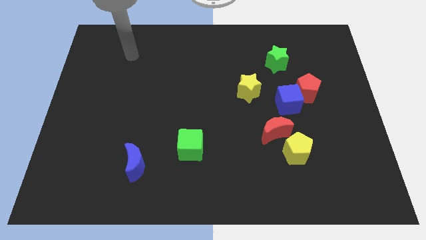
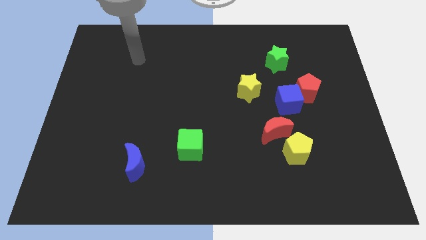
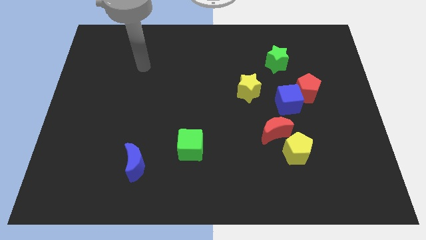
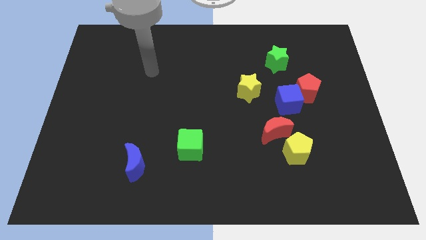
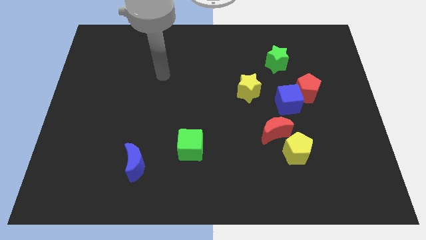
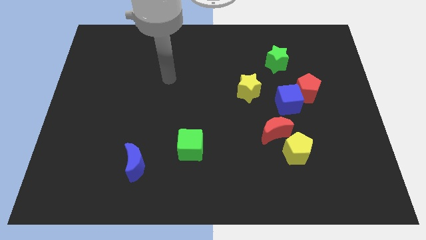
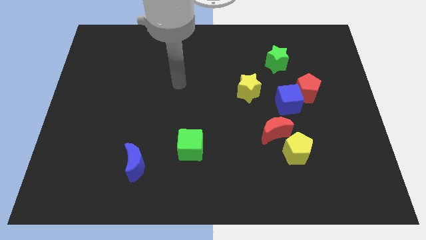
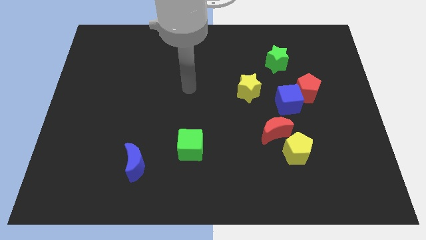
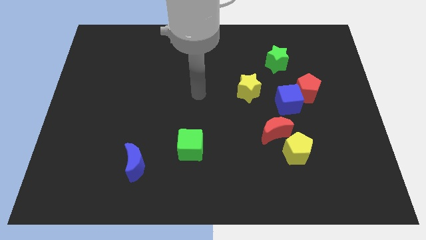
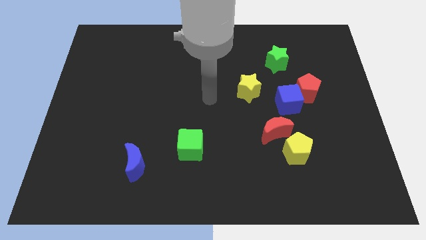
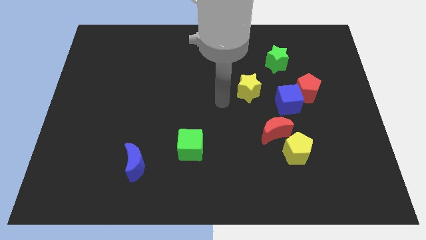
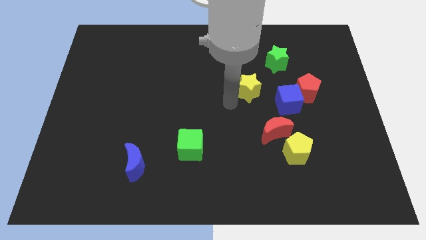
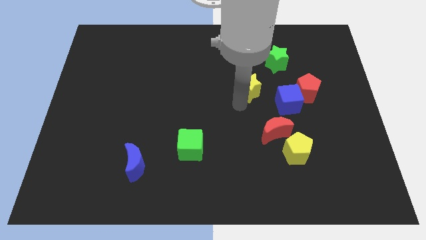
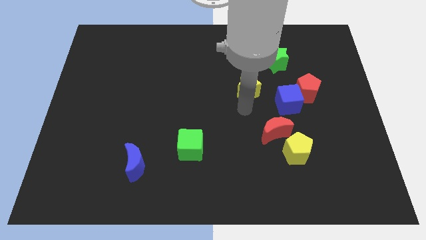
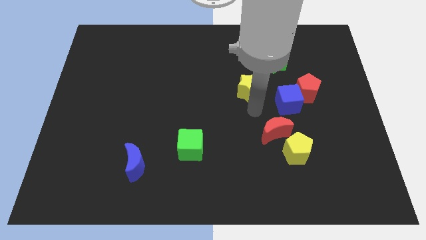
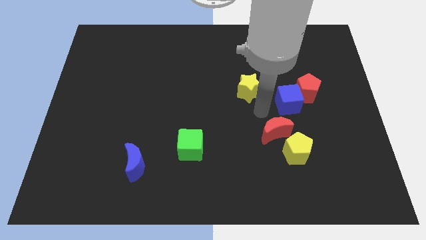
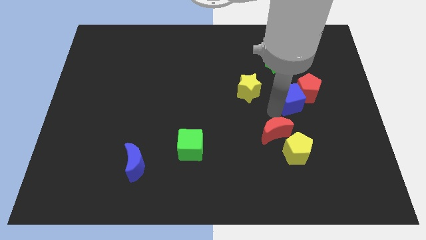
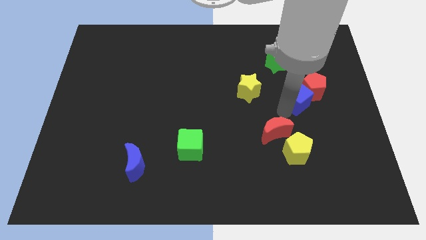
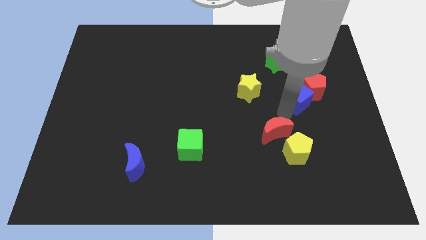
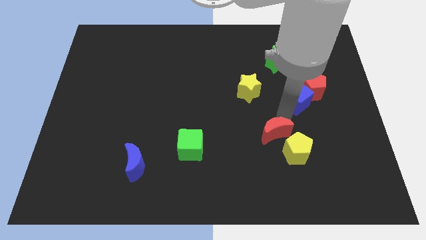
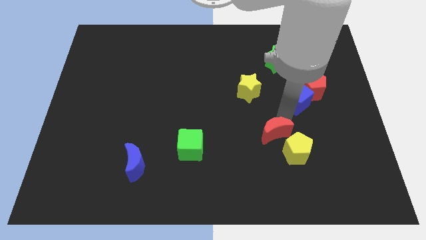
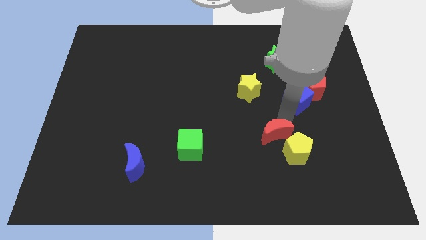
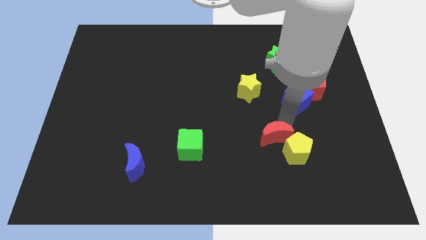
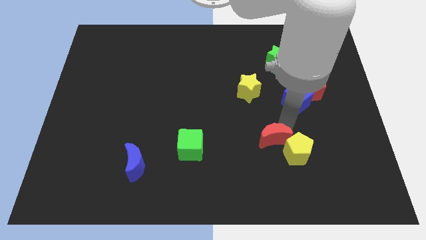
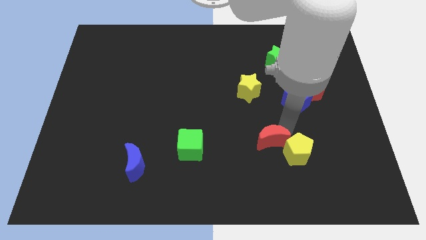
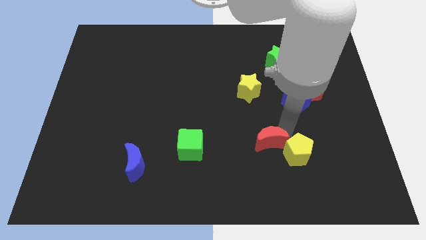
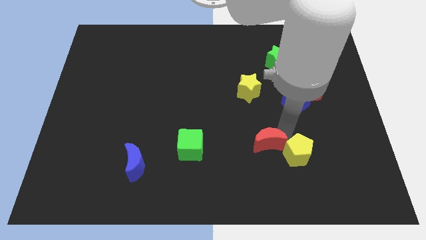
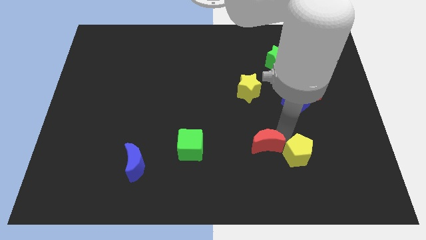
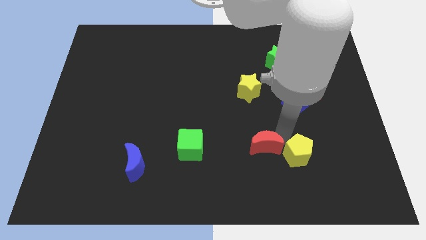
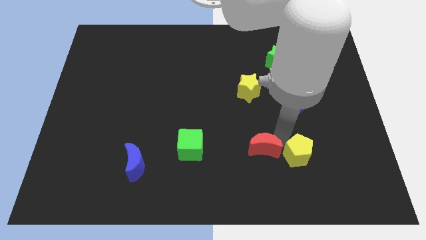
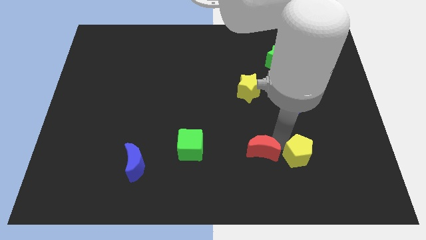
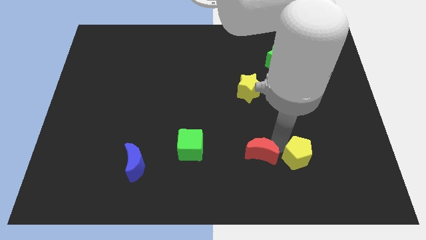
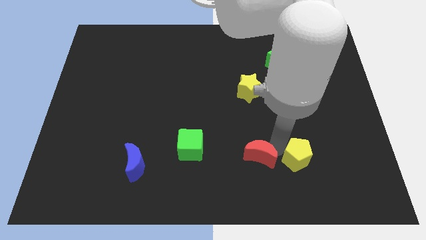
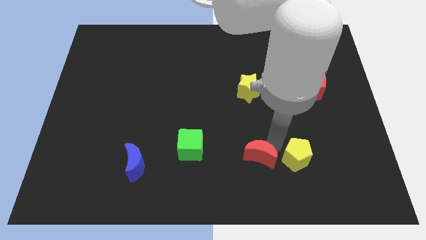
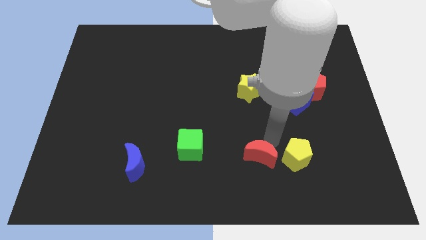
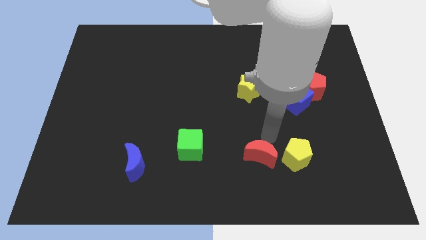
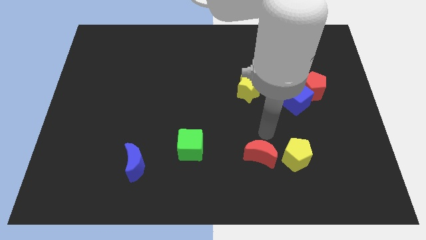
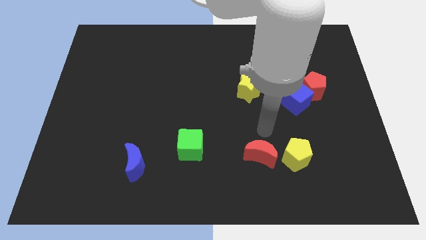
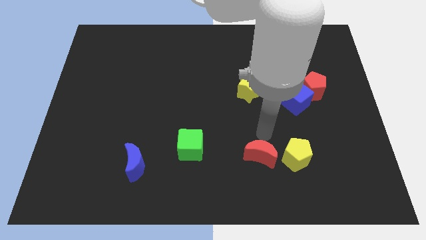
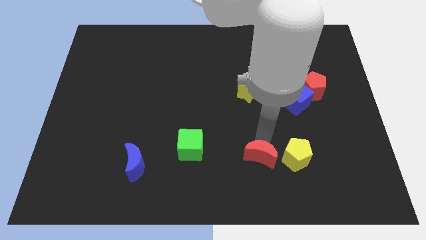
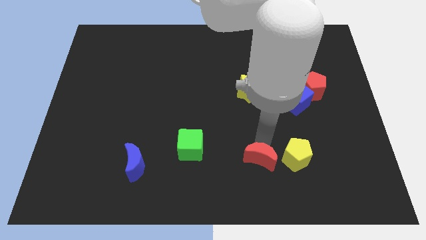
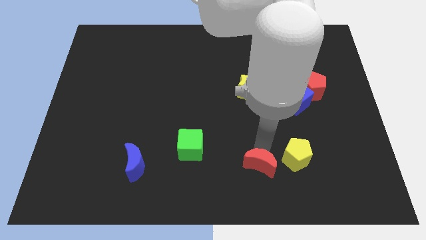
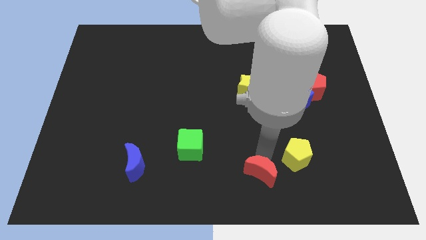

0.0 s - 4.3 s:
put the red moon to the bottom side

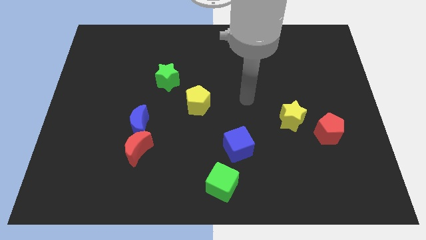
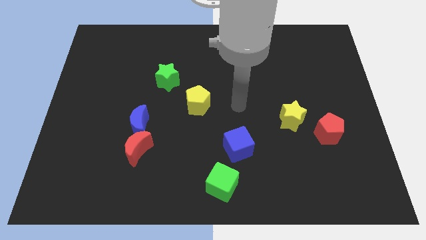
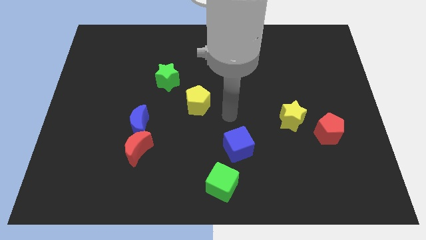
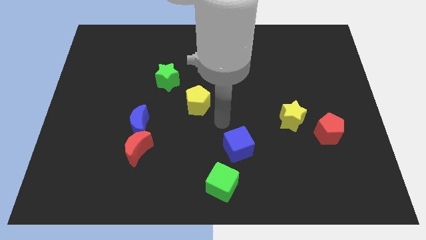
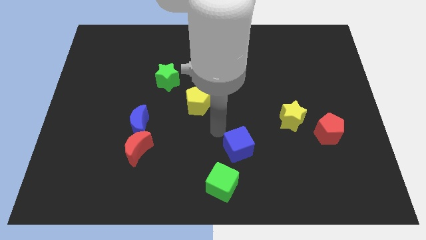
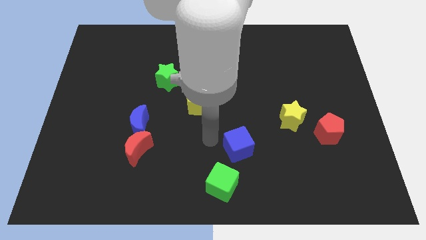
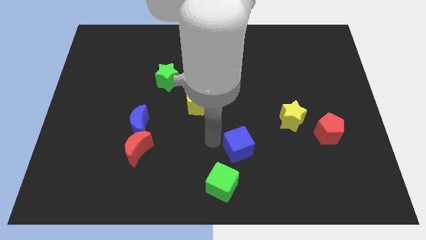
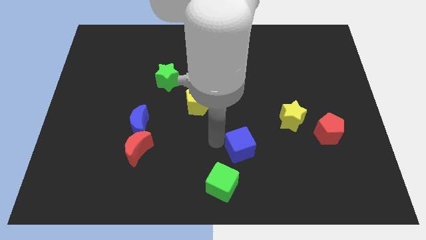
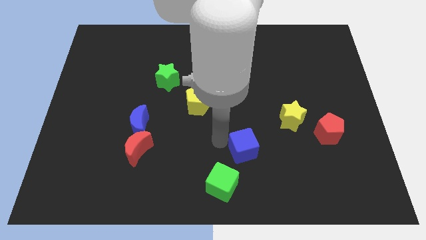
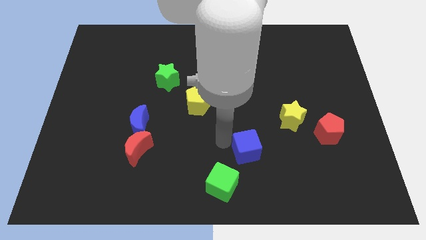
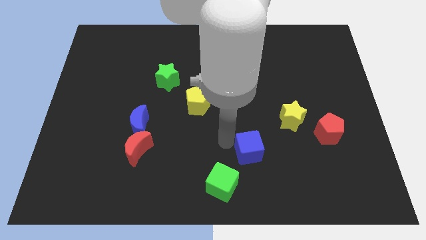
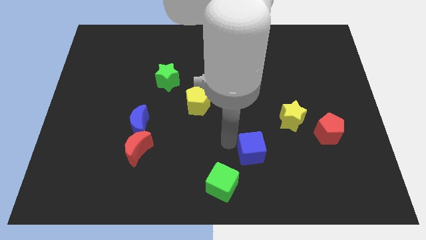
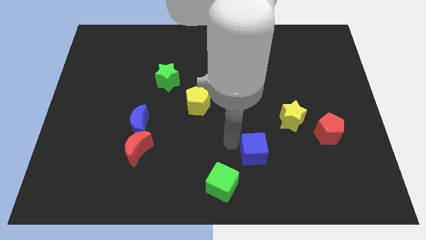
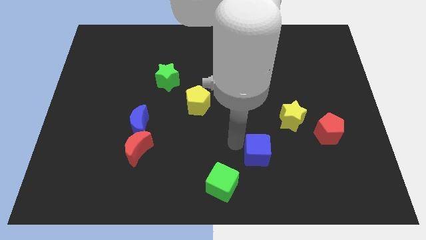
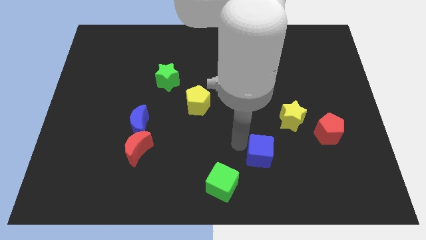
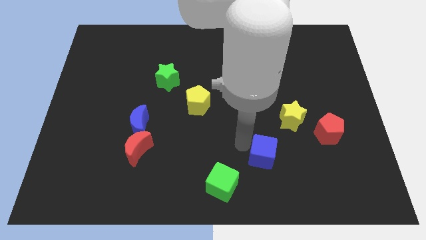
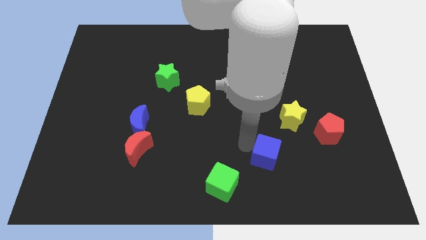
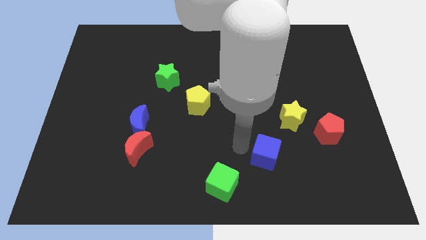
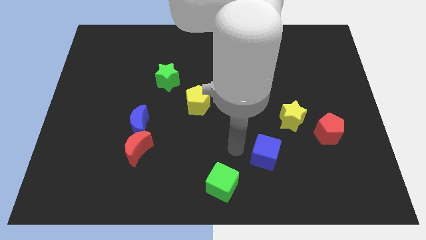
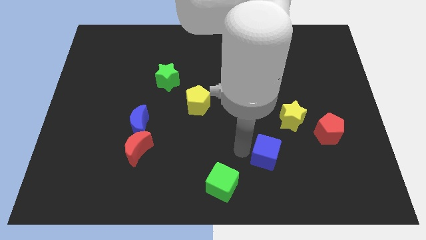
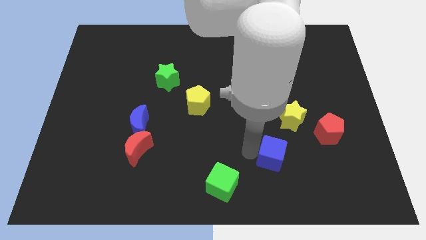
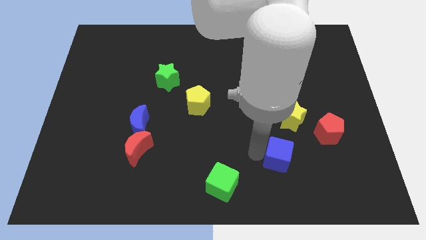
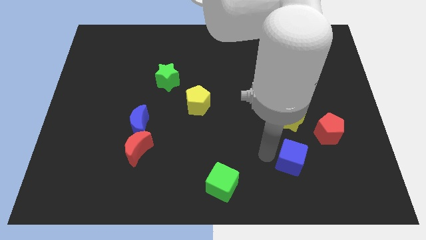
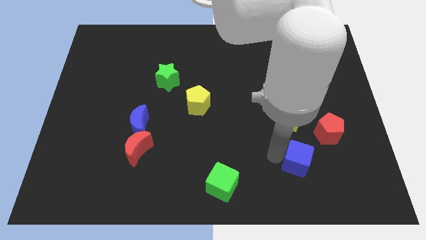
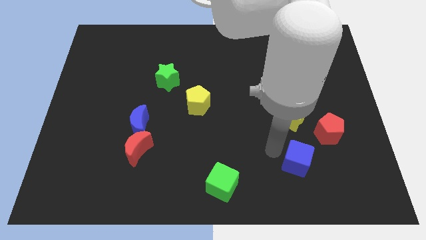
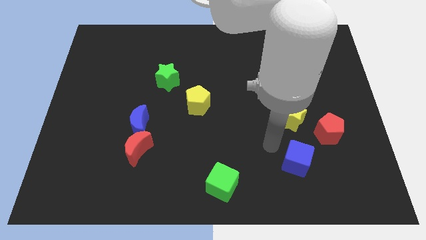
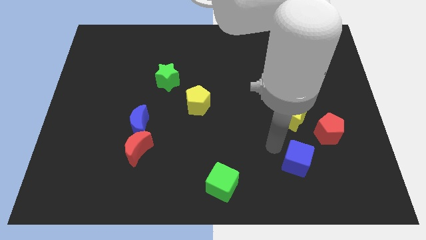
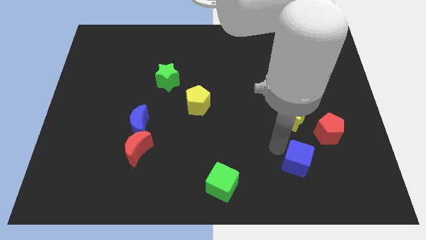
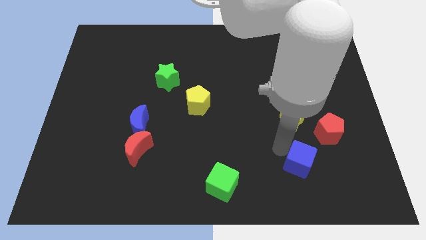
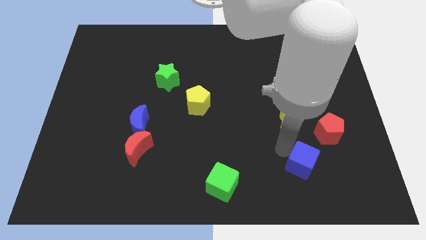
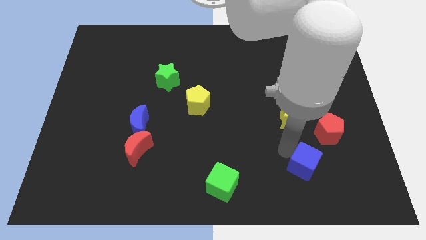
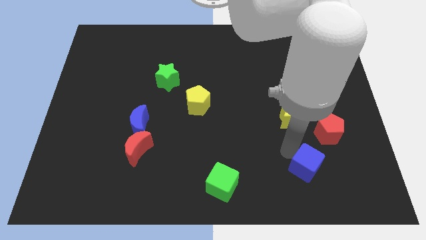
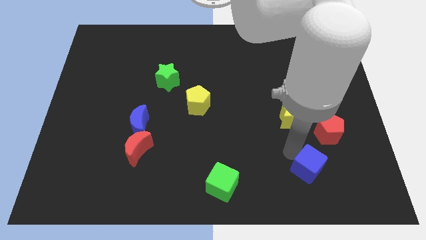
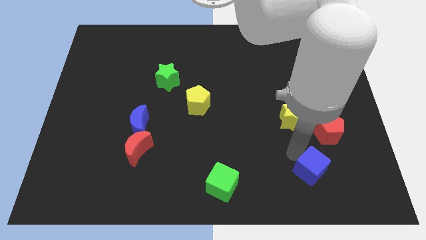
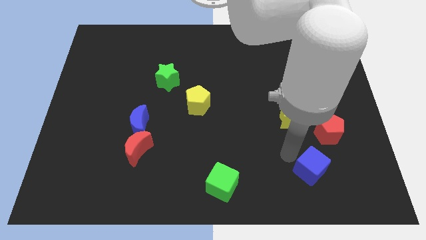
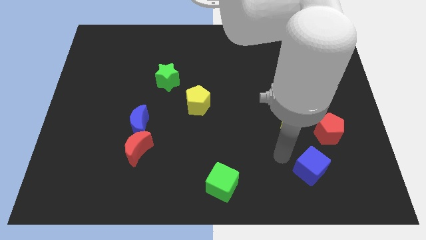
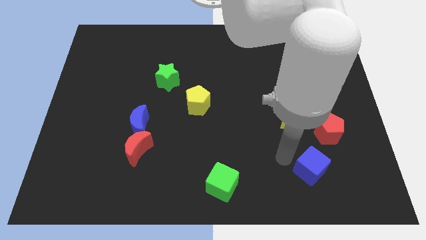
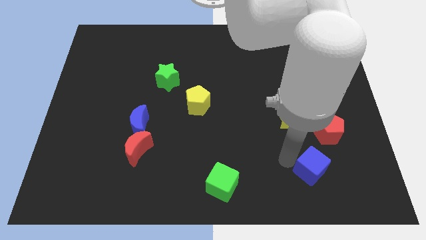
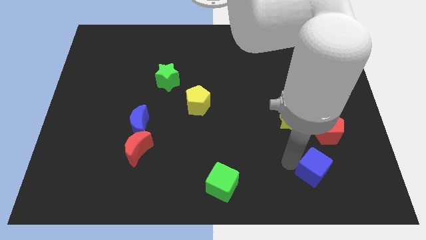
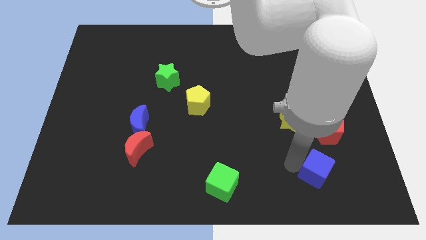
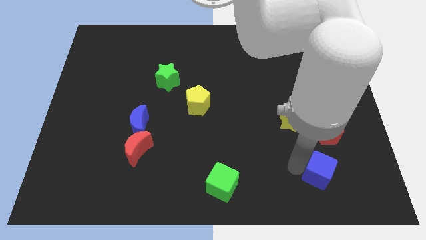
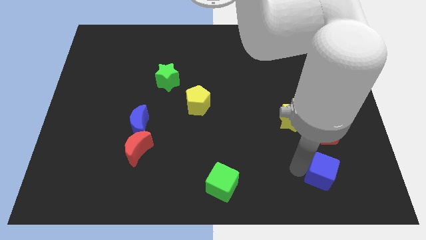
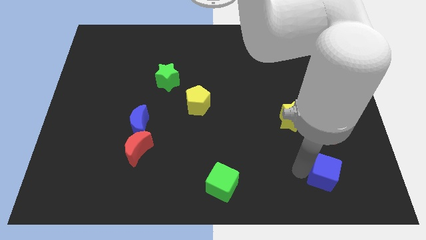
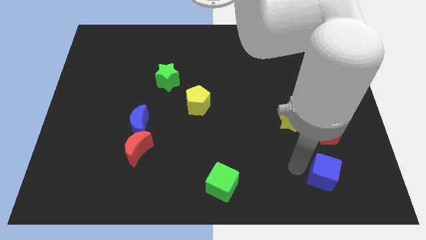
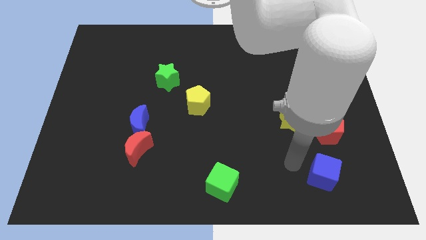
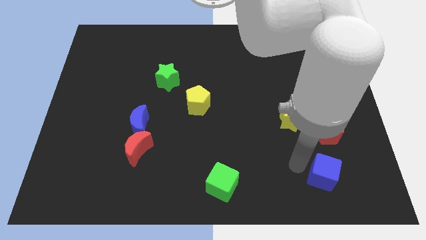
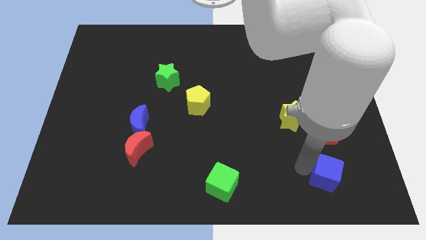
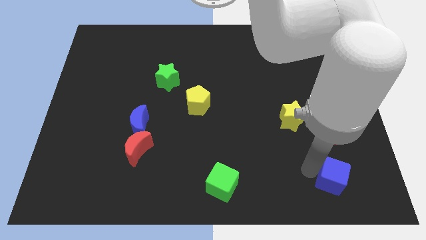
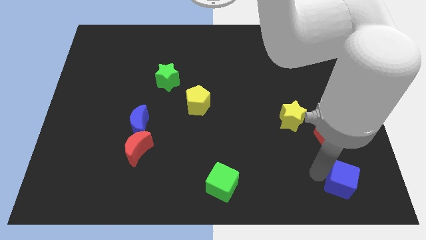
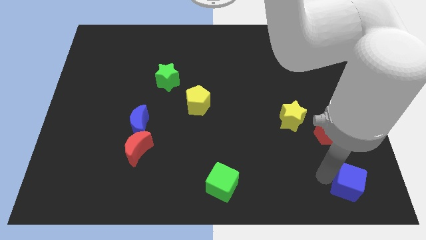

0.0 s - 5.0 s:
slide the blue cube to the lower right corner
